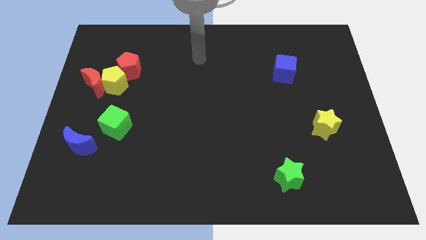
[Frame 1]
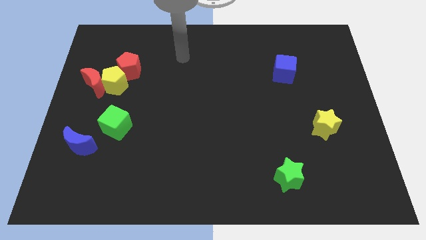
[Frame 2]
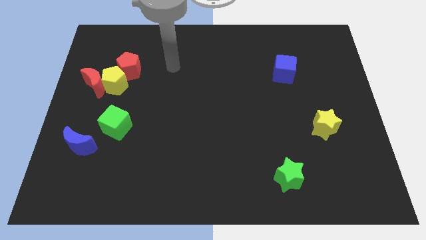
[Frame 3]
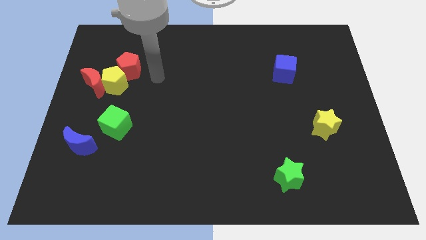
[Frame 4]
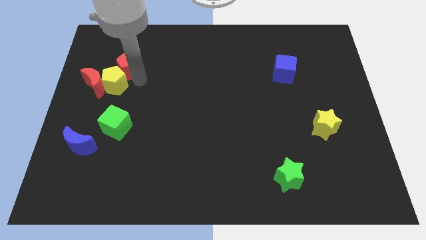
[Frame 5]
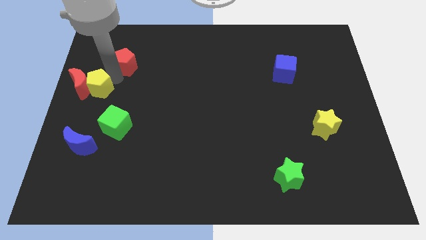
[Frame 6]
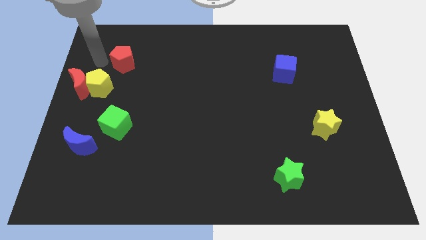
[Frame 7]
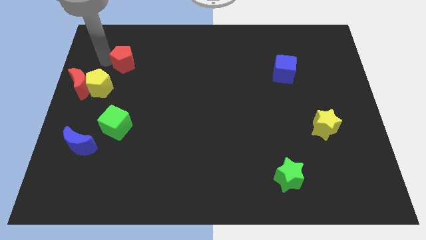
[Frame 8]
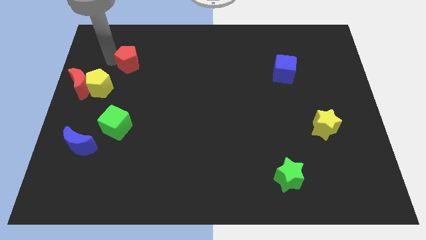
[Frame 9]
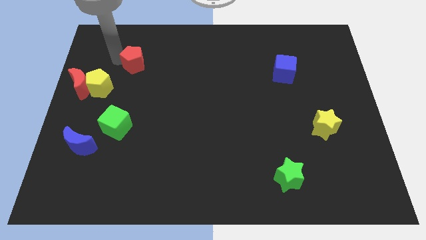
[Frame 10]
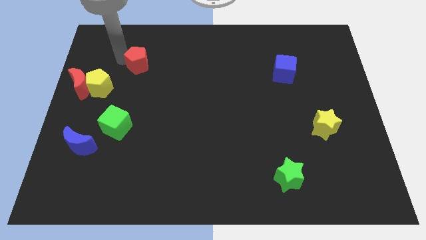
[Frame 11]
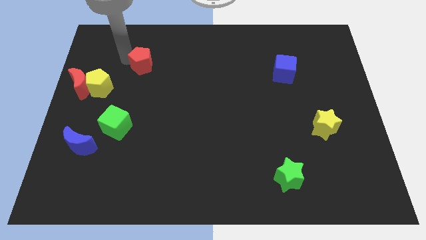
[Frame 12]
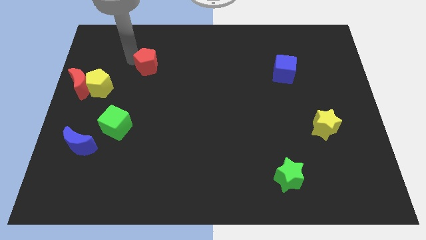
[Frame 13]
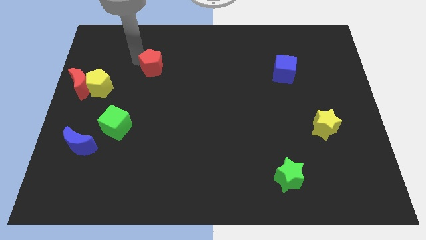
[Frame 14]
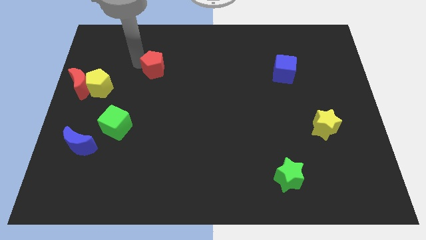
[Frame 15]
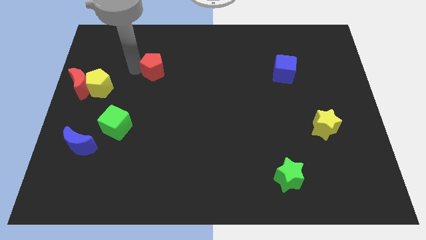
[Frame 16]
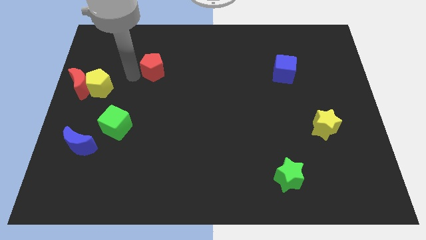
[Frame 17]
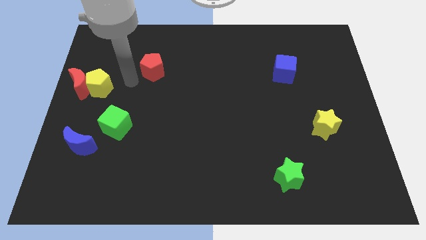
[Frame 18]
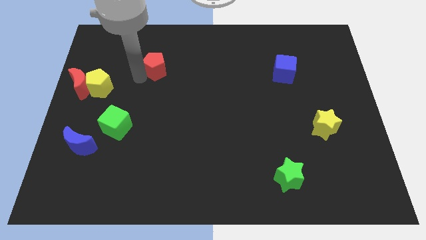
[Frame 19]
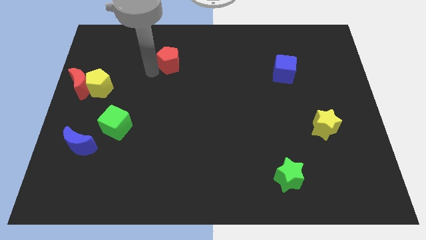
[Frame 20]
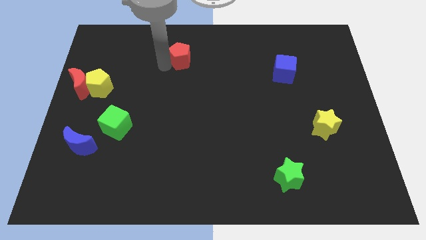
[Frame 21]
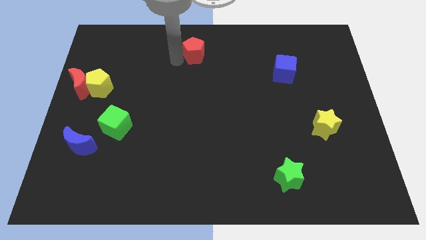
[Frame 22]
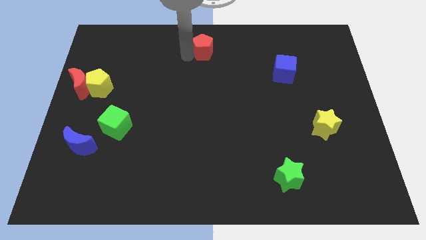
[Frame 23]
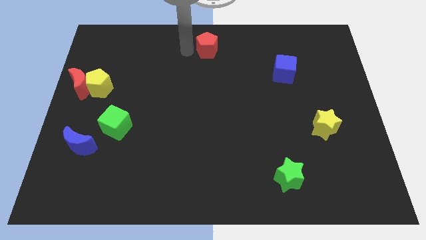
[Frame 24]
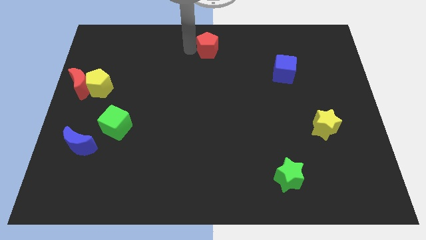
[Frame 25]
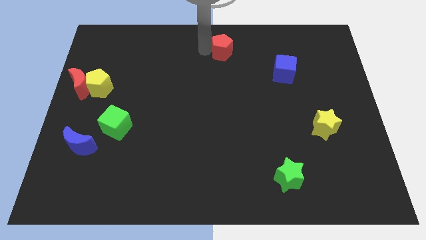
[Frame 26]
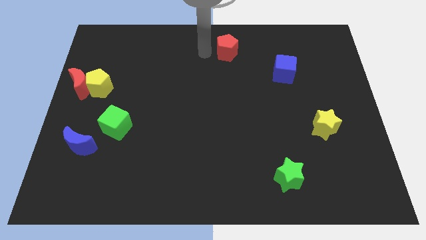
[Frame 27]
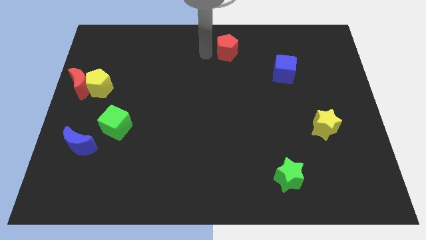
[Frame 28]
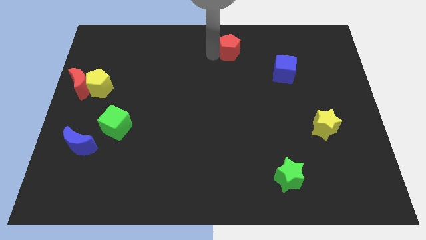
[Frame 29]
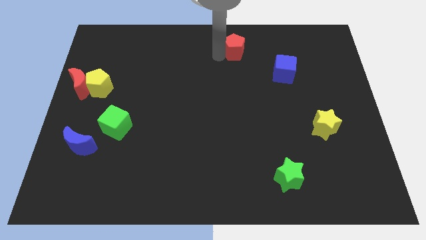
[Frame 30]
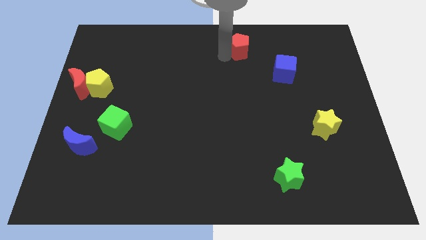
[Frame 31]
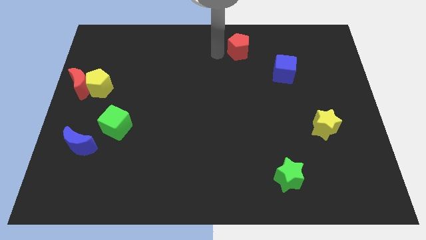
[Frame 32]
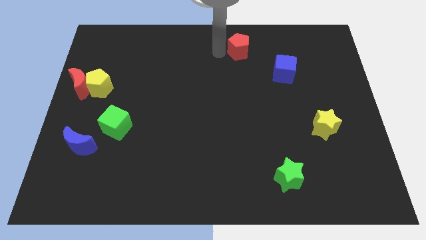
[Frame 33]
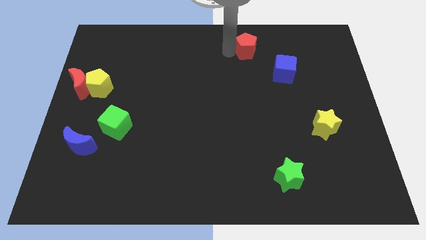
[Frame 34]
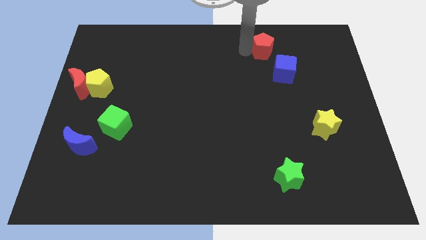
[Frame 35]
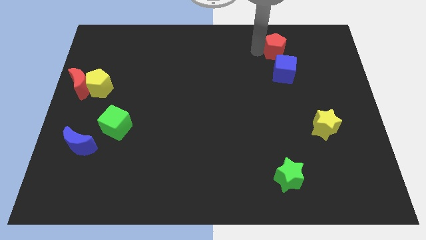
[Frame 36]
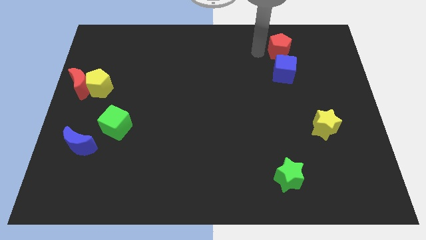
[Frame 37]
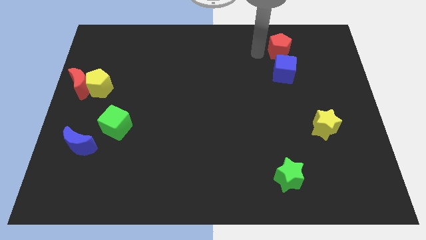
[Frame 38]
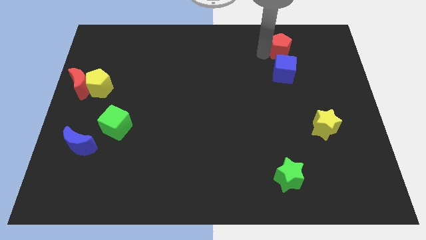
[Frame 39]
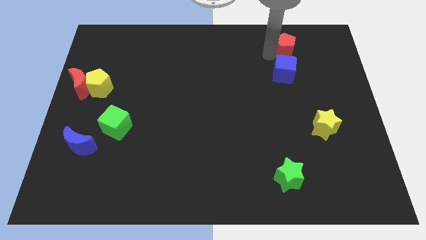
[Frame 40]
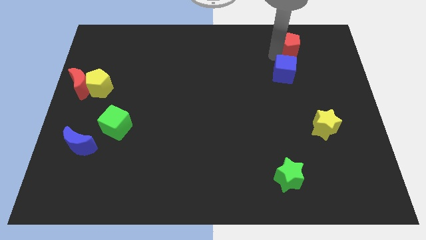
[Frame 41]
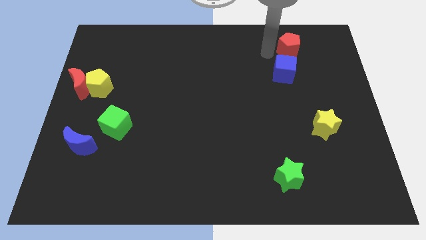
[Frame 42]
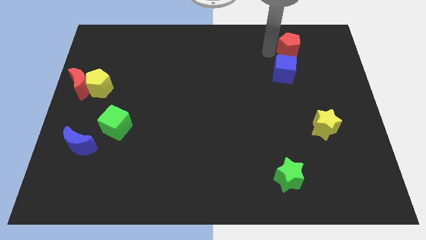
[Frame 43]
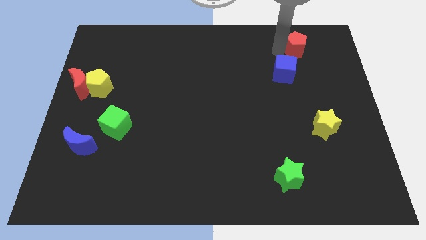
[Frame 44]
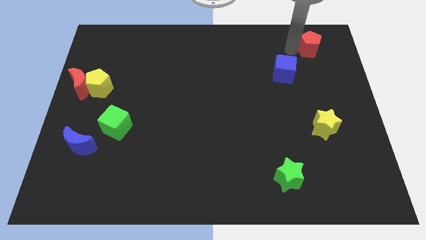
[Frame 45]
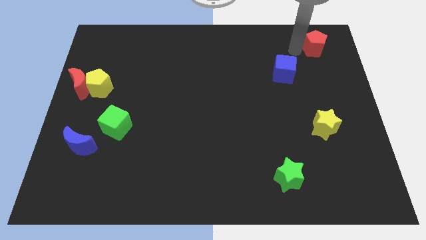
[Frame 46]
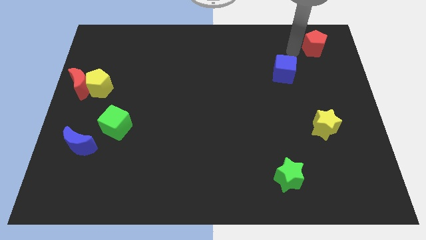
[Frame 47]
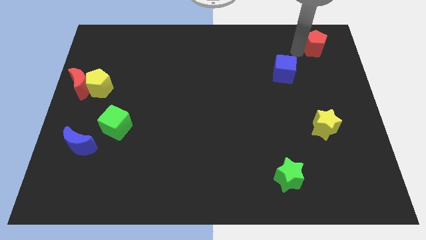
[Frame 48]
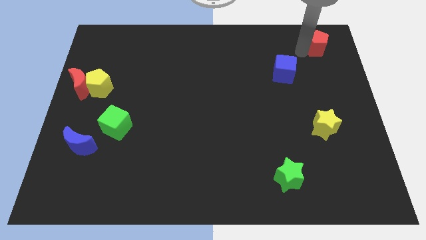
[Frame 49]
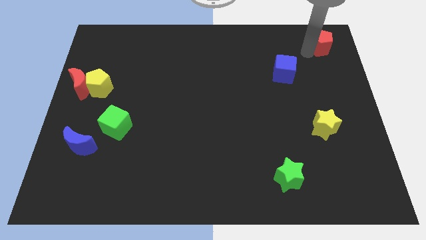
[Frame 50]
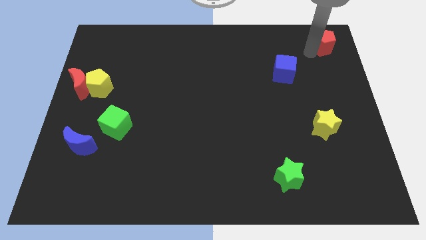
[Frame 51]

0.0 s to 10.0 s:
put the red pentagon to the top right
